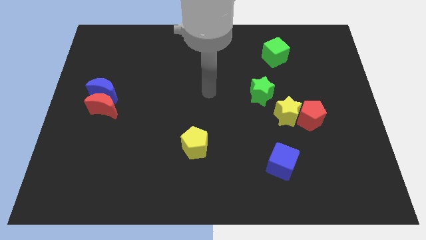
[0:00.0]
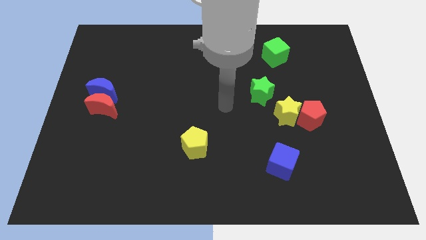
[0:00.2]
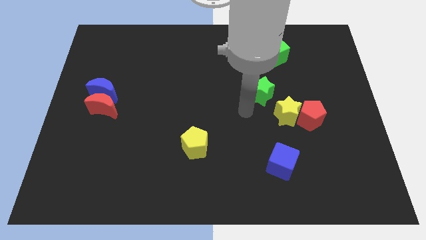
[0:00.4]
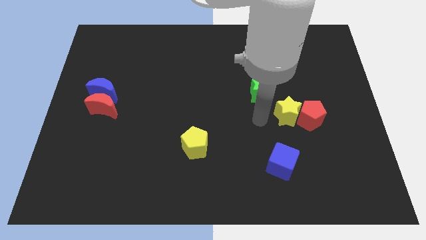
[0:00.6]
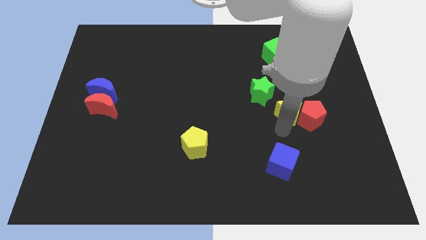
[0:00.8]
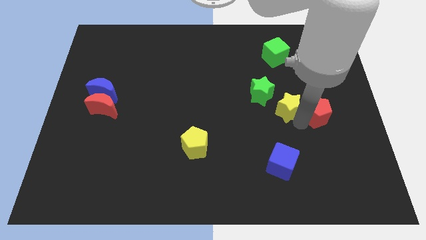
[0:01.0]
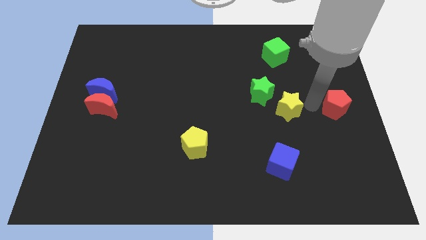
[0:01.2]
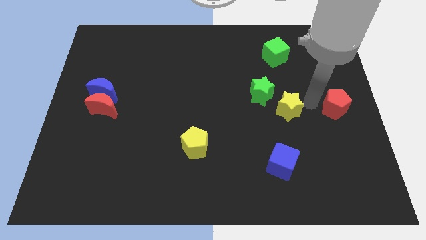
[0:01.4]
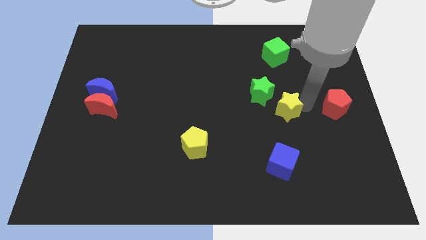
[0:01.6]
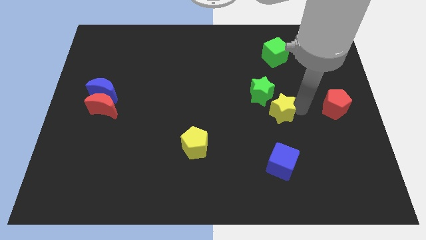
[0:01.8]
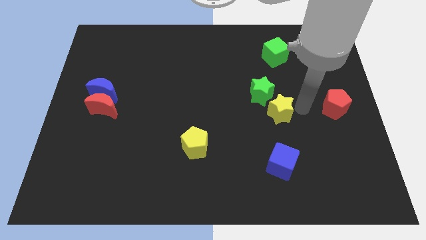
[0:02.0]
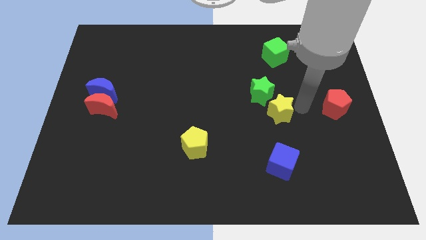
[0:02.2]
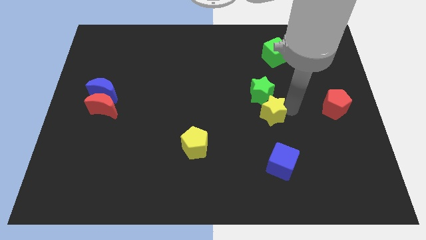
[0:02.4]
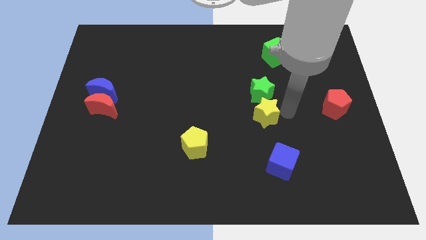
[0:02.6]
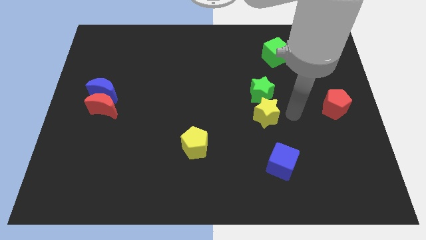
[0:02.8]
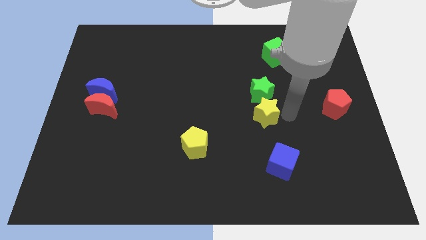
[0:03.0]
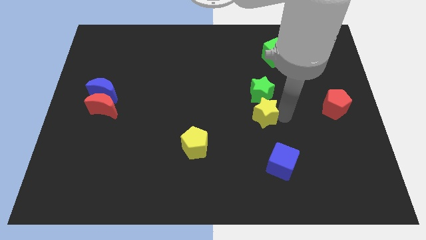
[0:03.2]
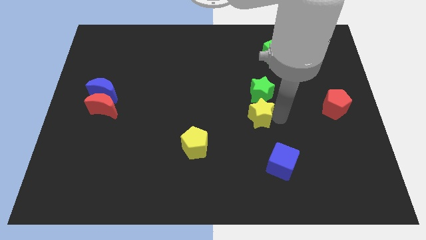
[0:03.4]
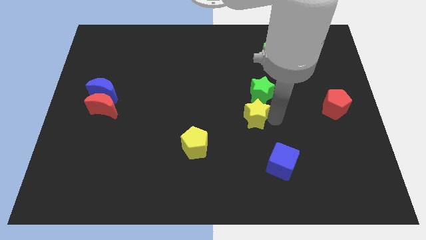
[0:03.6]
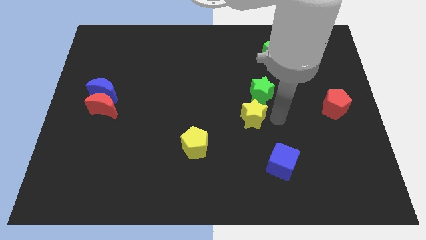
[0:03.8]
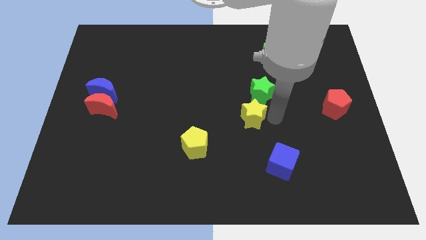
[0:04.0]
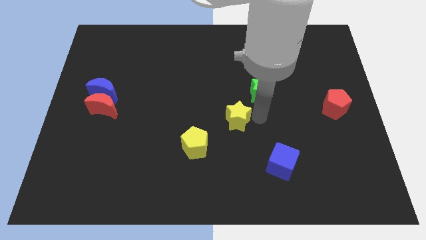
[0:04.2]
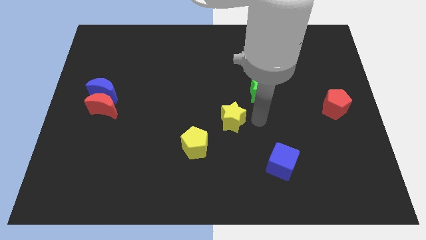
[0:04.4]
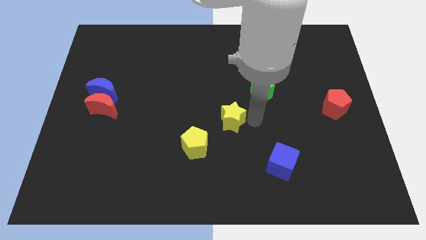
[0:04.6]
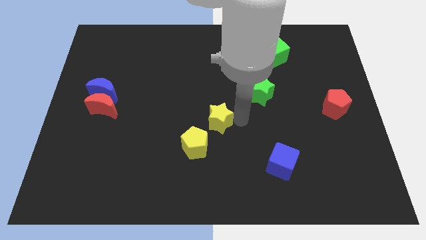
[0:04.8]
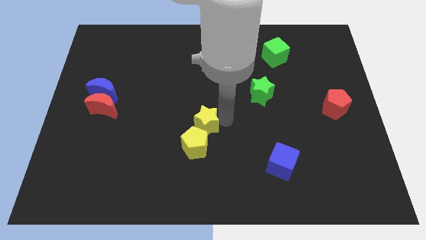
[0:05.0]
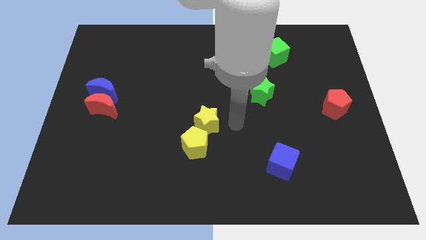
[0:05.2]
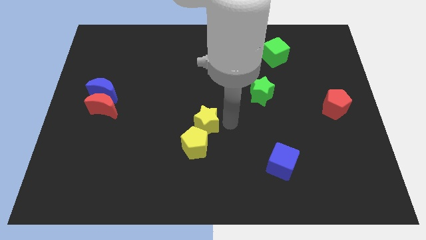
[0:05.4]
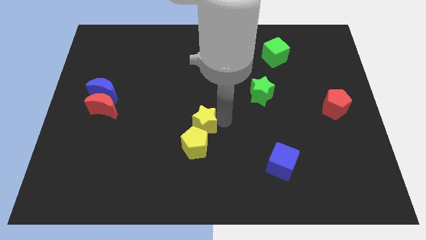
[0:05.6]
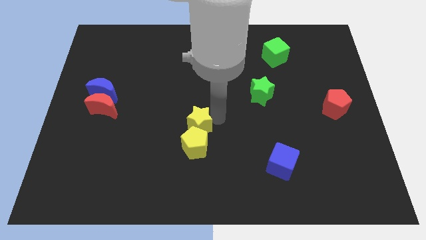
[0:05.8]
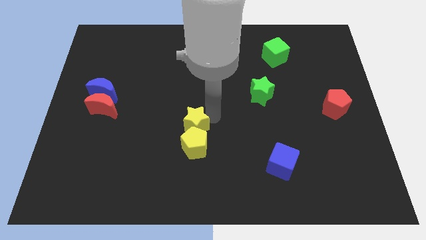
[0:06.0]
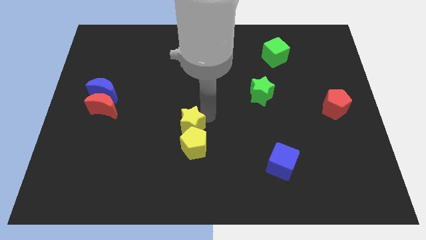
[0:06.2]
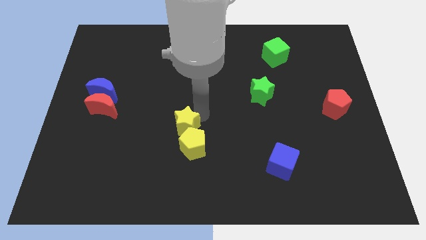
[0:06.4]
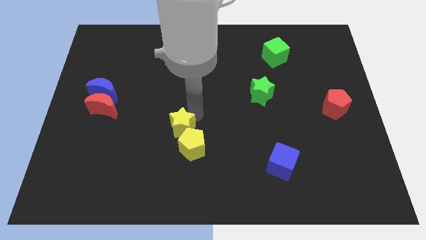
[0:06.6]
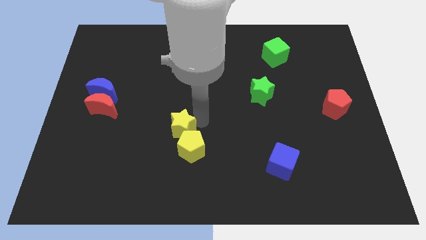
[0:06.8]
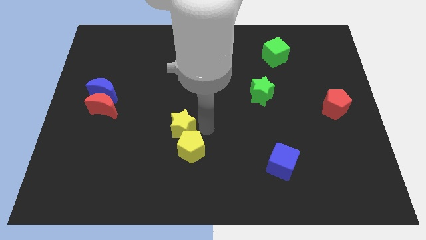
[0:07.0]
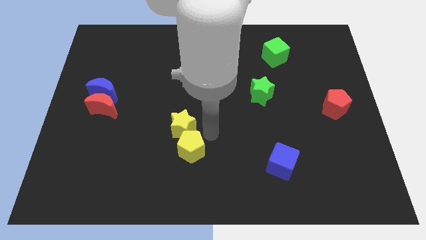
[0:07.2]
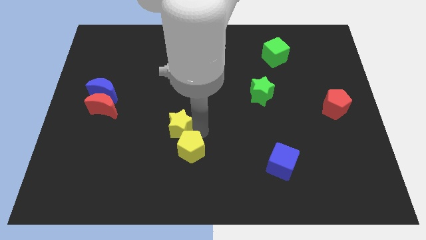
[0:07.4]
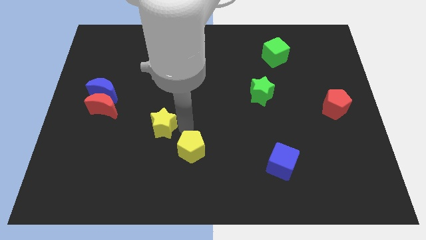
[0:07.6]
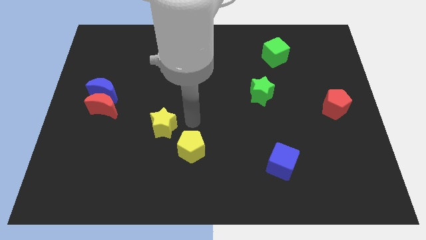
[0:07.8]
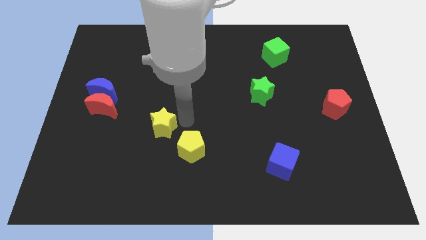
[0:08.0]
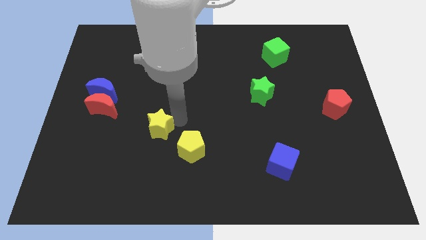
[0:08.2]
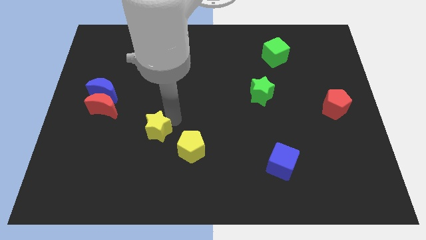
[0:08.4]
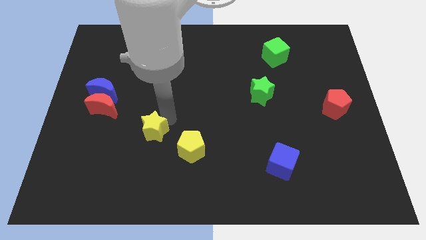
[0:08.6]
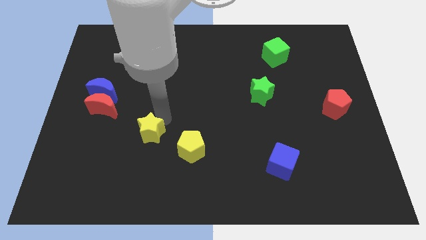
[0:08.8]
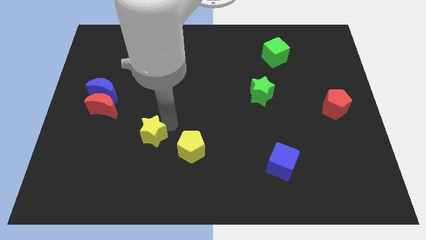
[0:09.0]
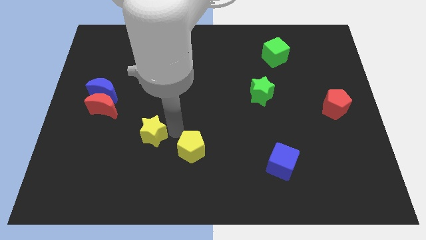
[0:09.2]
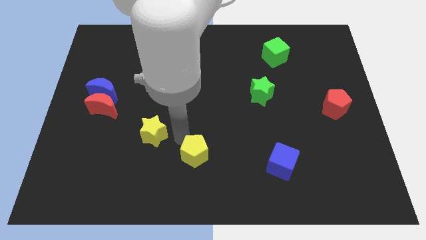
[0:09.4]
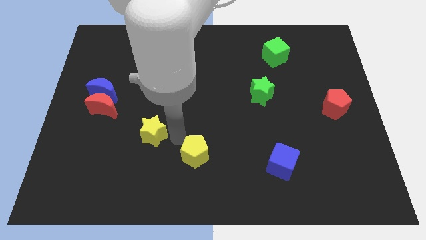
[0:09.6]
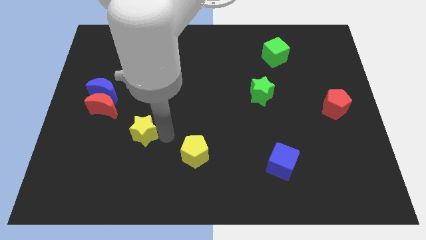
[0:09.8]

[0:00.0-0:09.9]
put the yellow star to the bottom right side of the red moon

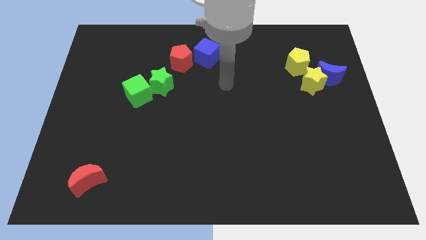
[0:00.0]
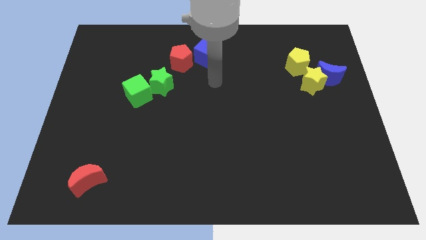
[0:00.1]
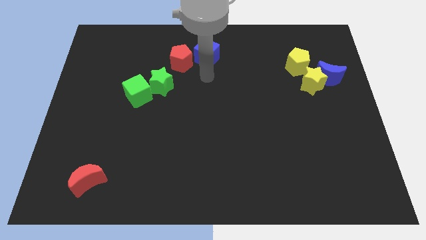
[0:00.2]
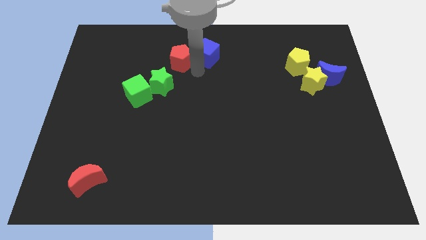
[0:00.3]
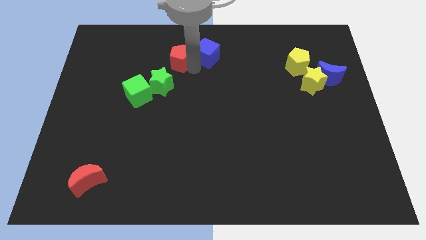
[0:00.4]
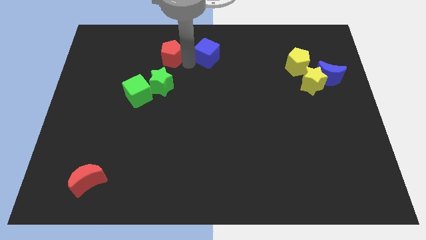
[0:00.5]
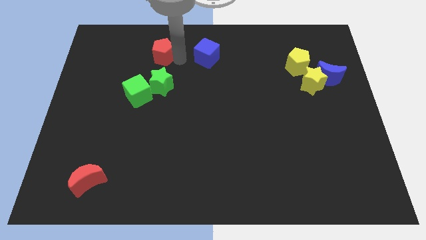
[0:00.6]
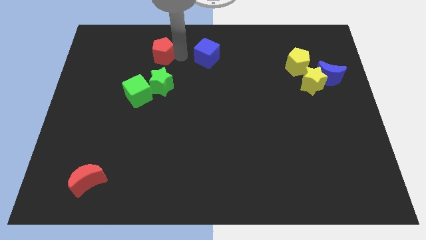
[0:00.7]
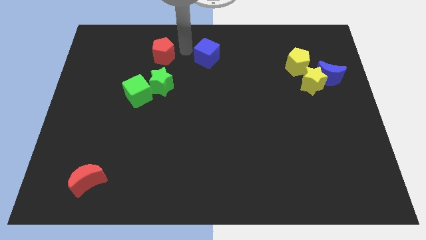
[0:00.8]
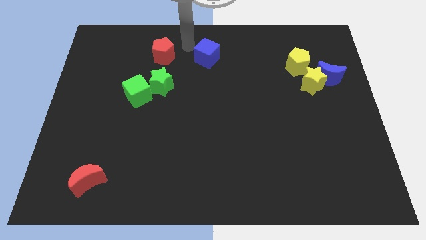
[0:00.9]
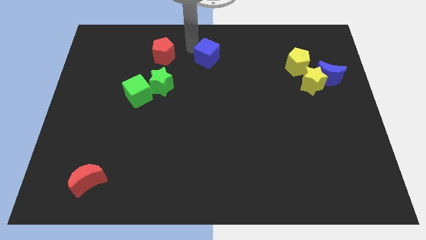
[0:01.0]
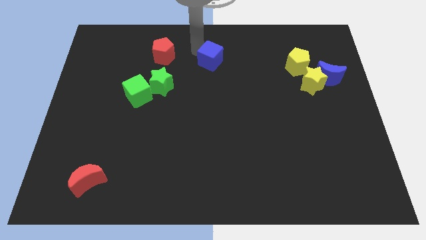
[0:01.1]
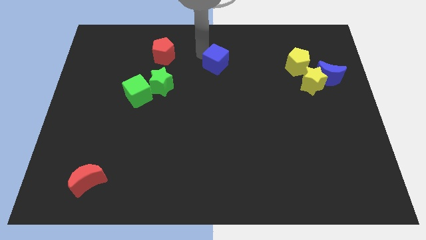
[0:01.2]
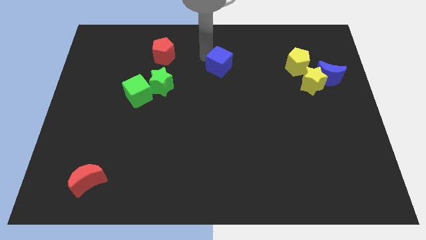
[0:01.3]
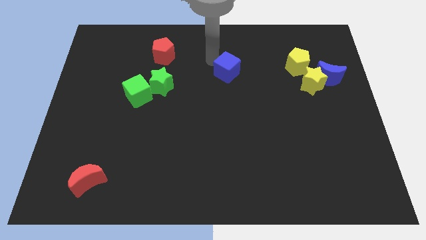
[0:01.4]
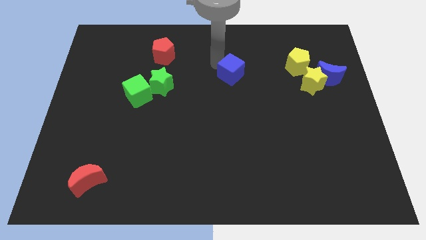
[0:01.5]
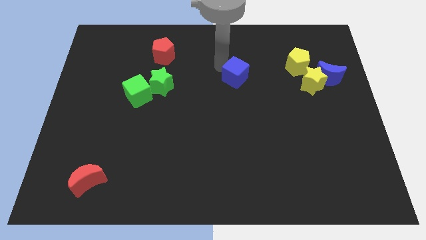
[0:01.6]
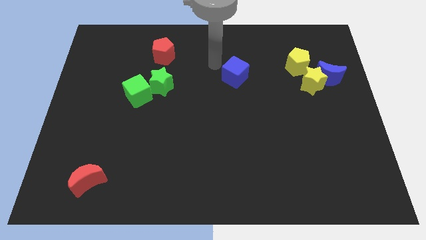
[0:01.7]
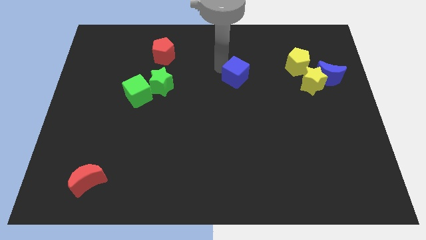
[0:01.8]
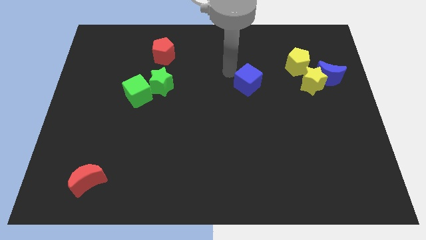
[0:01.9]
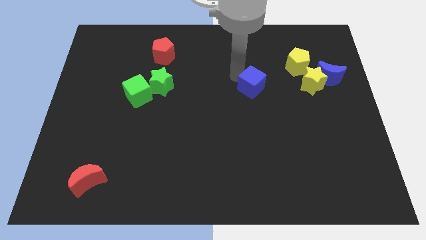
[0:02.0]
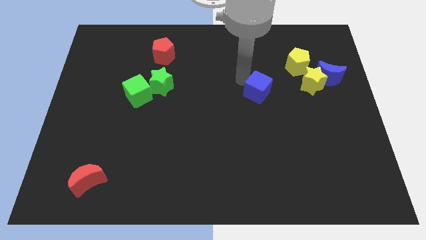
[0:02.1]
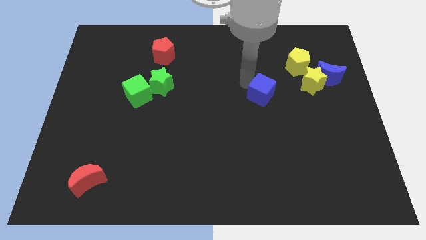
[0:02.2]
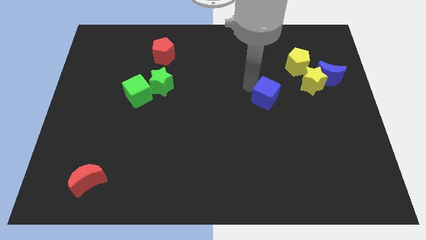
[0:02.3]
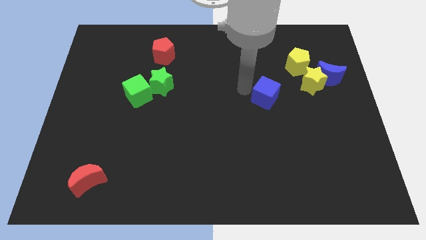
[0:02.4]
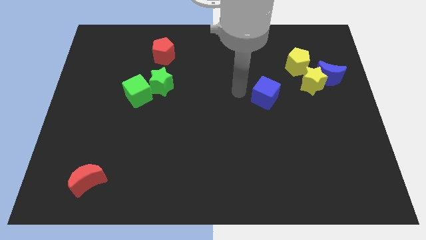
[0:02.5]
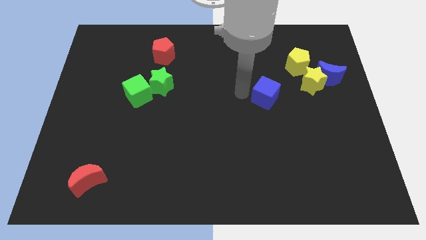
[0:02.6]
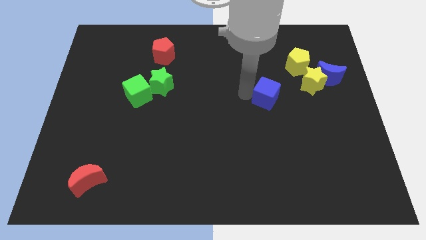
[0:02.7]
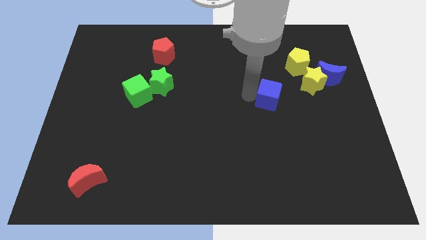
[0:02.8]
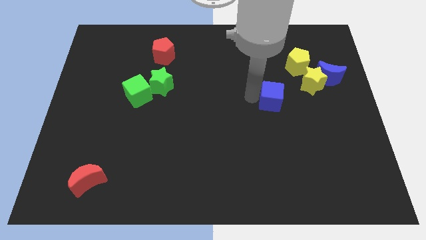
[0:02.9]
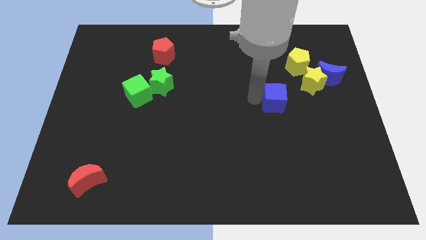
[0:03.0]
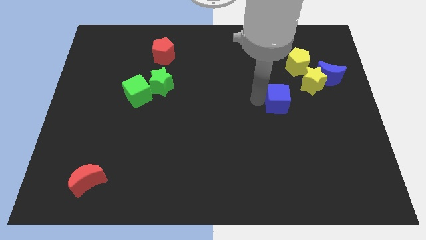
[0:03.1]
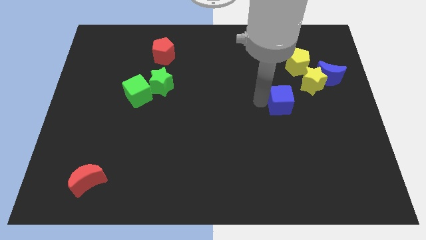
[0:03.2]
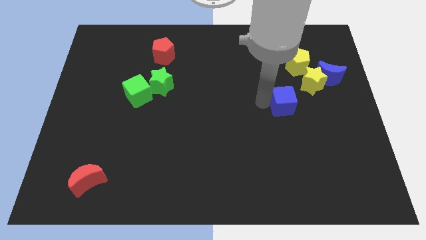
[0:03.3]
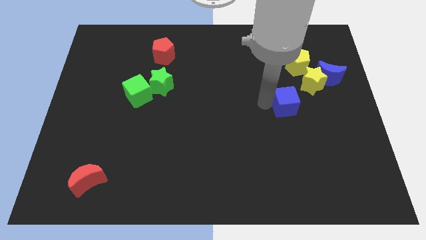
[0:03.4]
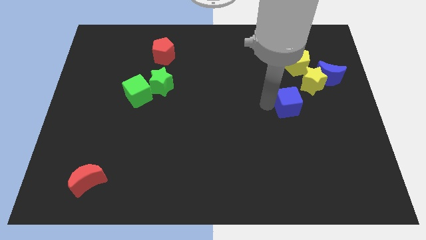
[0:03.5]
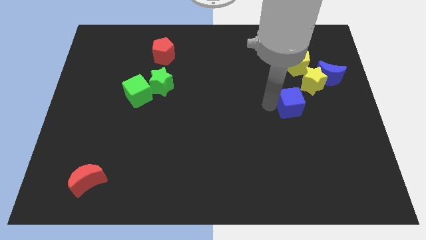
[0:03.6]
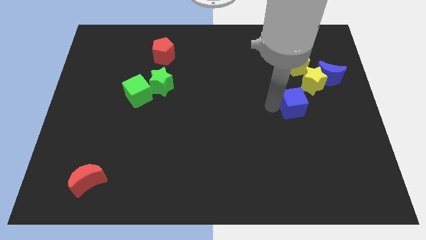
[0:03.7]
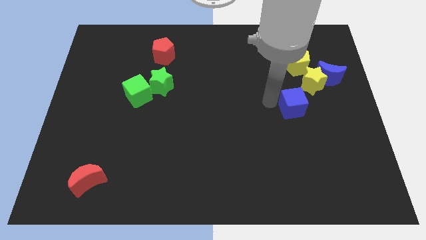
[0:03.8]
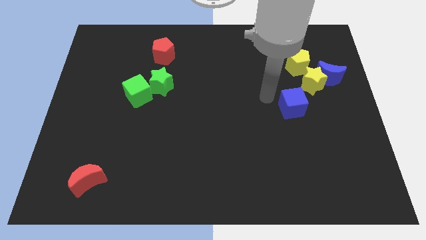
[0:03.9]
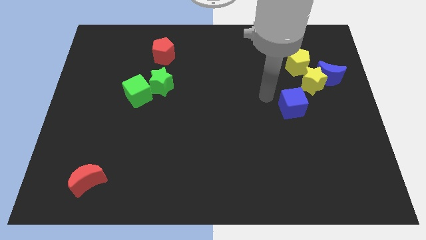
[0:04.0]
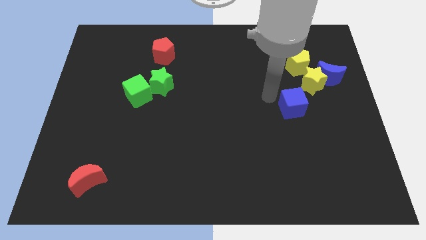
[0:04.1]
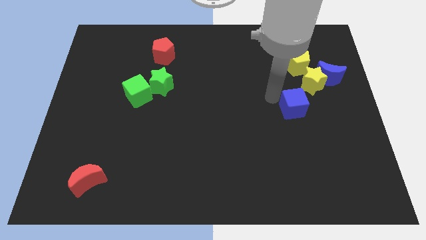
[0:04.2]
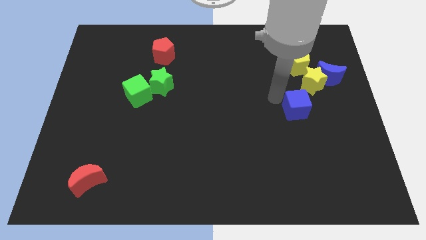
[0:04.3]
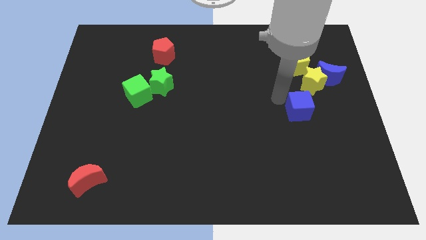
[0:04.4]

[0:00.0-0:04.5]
put the blue cube to the bottom of the yellow star
